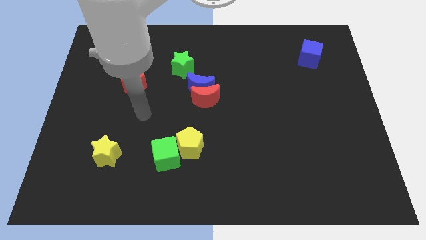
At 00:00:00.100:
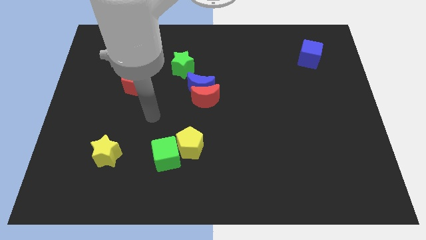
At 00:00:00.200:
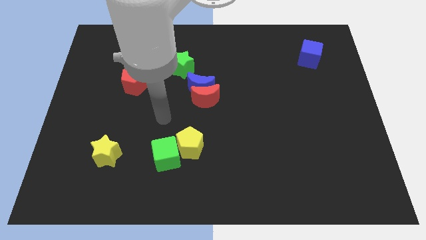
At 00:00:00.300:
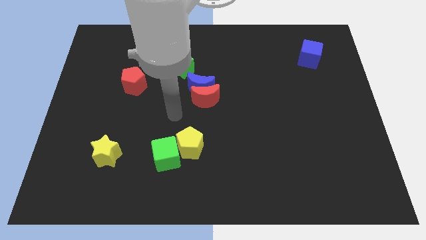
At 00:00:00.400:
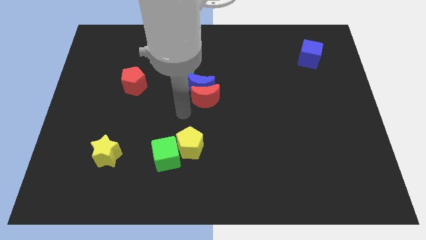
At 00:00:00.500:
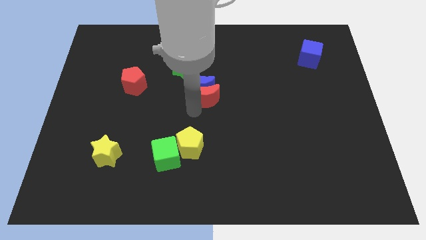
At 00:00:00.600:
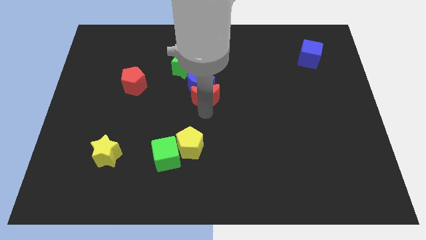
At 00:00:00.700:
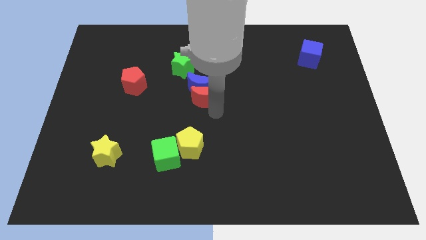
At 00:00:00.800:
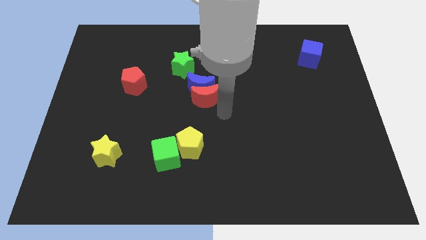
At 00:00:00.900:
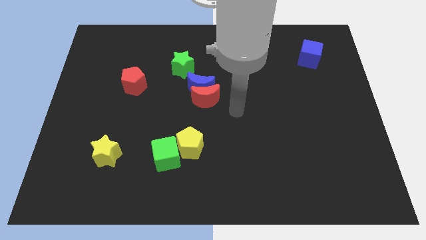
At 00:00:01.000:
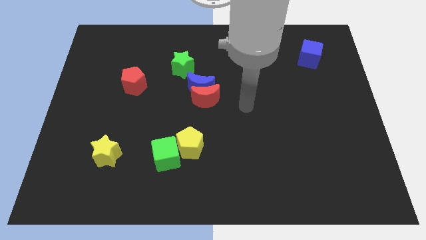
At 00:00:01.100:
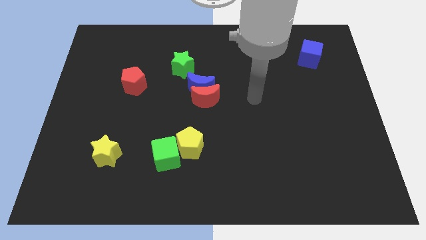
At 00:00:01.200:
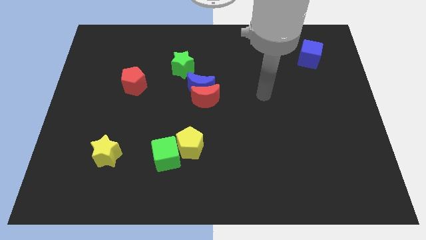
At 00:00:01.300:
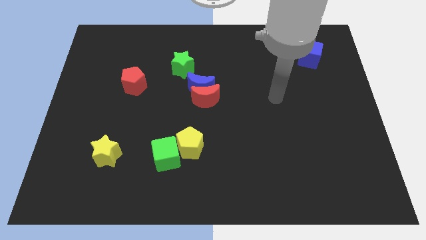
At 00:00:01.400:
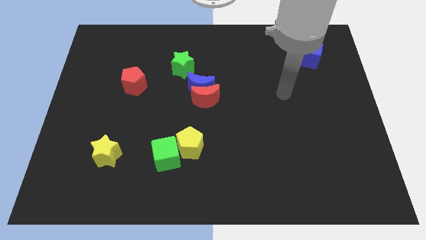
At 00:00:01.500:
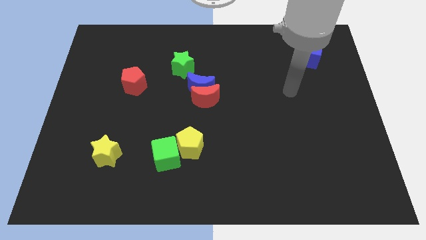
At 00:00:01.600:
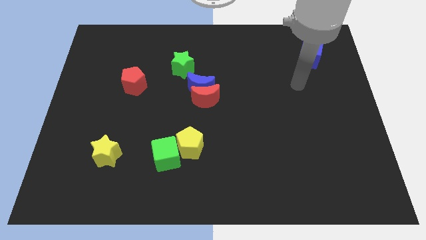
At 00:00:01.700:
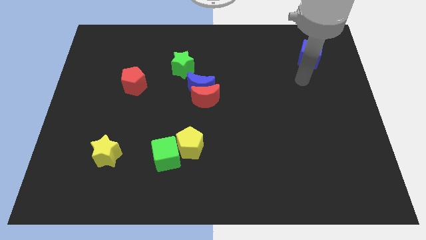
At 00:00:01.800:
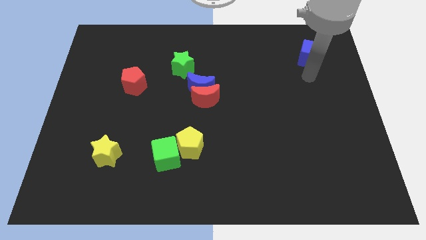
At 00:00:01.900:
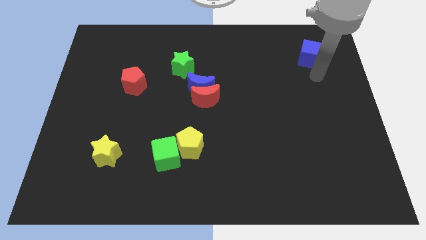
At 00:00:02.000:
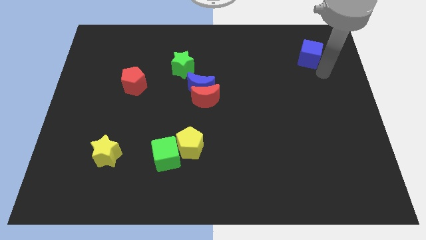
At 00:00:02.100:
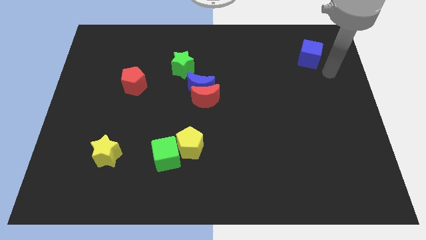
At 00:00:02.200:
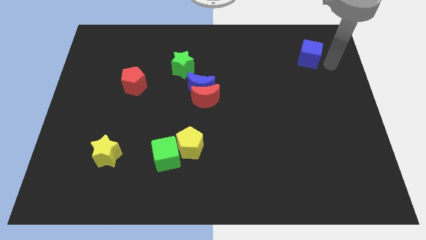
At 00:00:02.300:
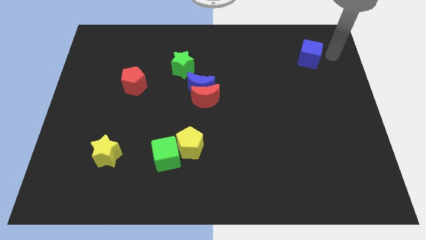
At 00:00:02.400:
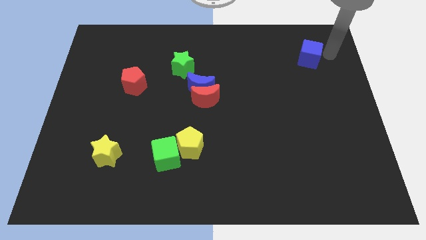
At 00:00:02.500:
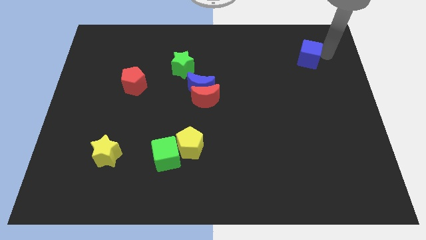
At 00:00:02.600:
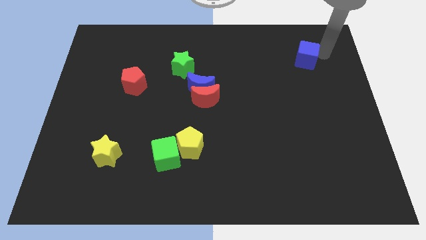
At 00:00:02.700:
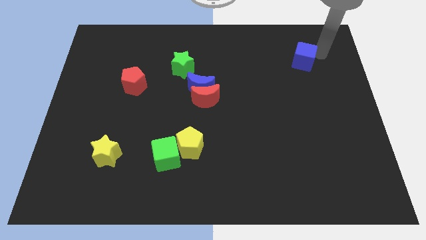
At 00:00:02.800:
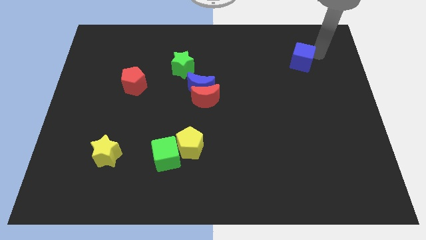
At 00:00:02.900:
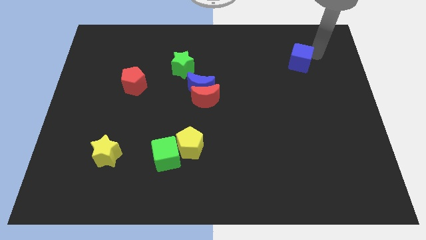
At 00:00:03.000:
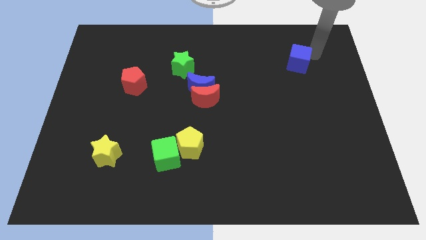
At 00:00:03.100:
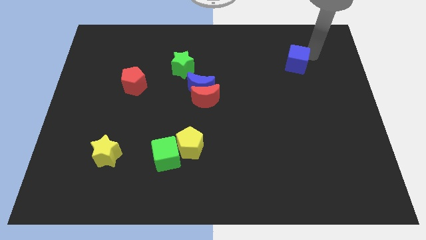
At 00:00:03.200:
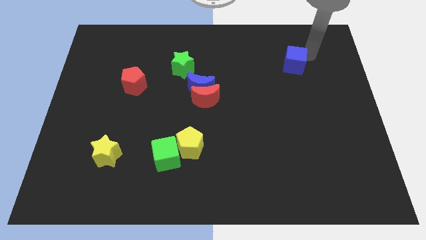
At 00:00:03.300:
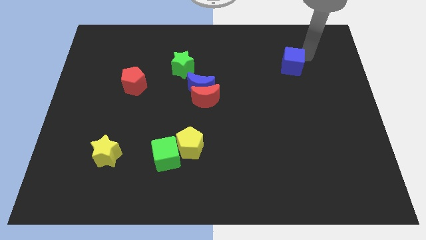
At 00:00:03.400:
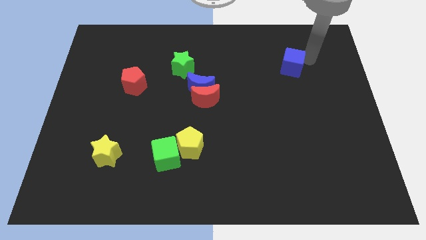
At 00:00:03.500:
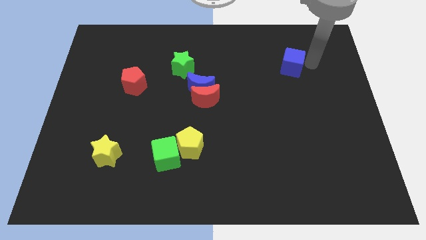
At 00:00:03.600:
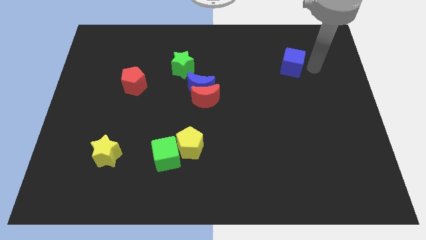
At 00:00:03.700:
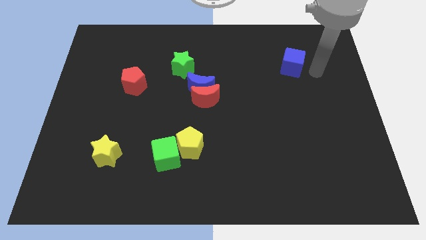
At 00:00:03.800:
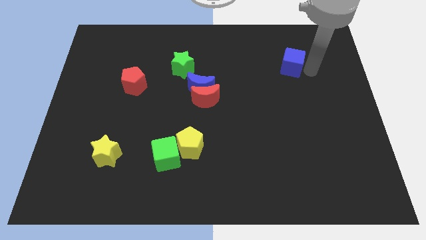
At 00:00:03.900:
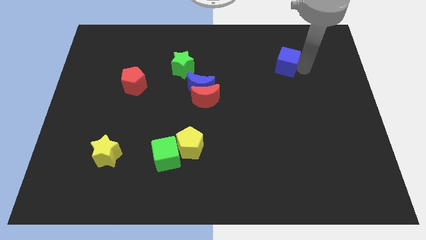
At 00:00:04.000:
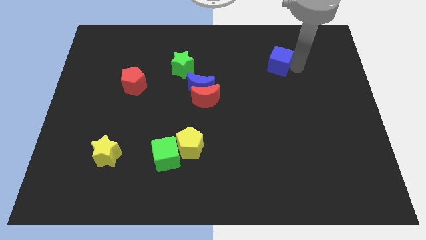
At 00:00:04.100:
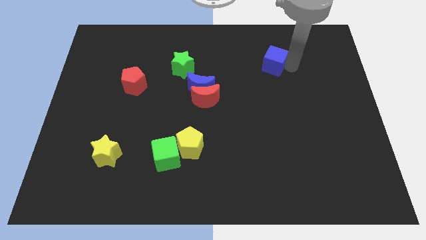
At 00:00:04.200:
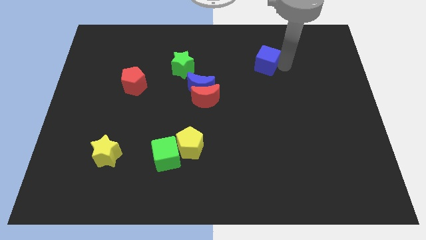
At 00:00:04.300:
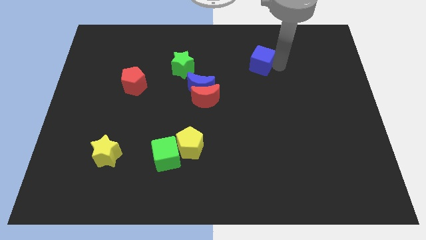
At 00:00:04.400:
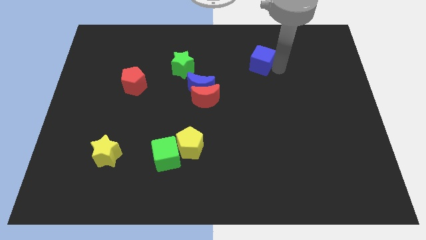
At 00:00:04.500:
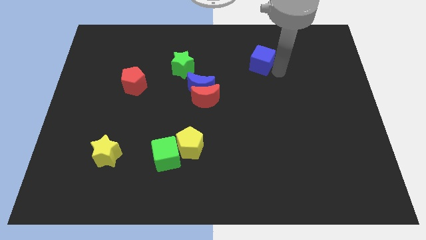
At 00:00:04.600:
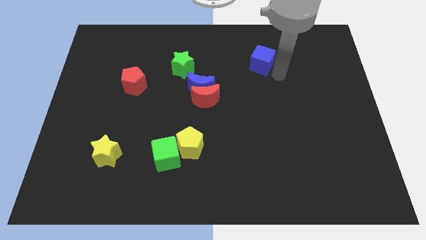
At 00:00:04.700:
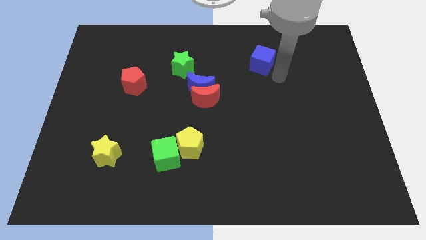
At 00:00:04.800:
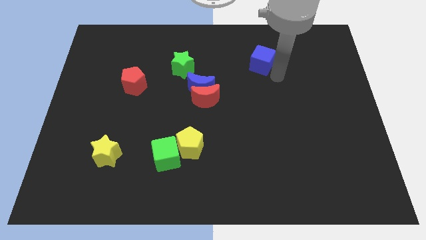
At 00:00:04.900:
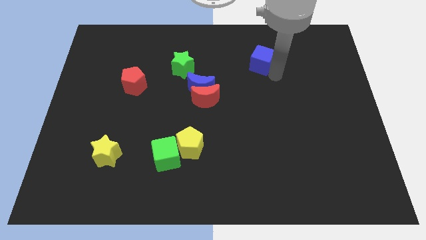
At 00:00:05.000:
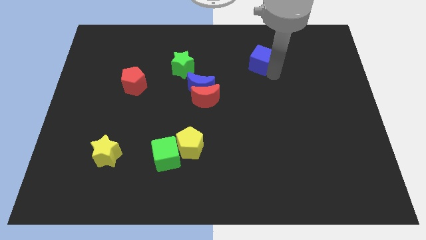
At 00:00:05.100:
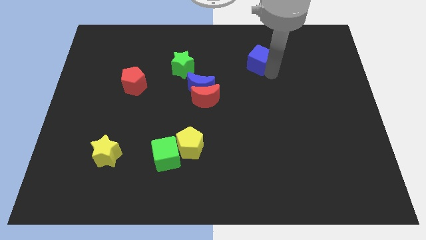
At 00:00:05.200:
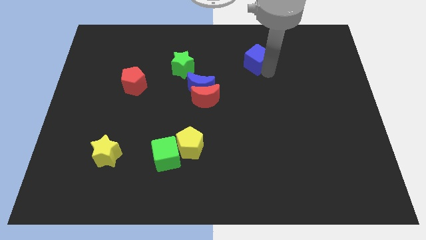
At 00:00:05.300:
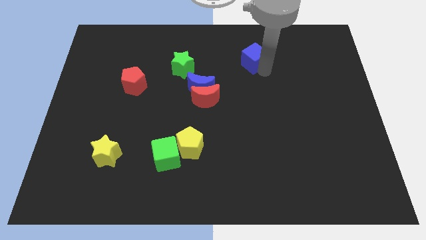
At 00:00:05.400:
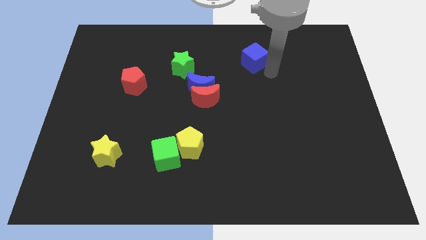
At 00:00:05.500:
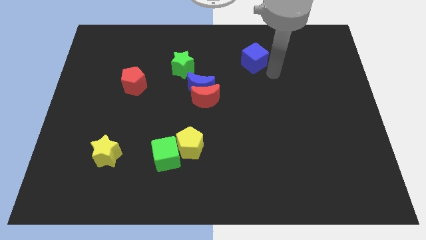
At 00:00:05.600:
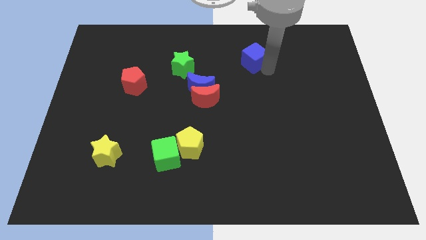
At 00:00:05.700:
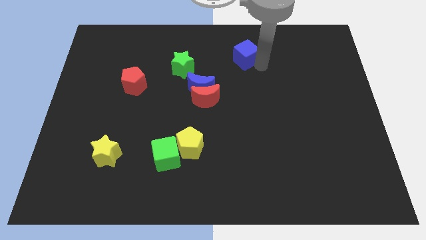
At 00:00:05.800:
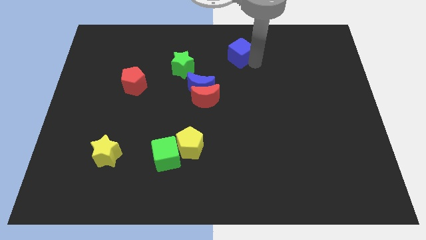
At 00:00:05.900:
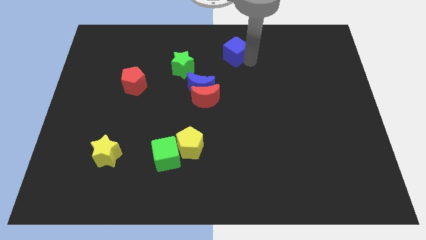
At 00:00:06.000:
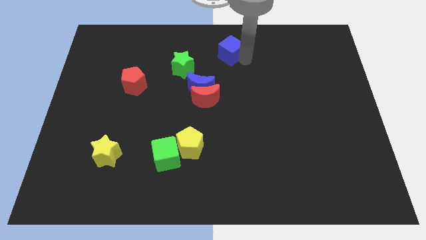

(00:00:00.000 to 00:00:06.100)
move the blue cube to the towards your base

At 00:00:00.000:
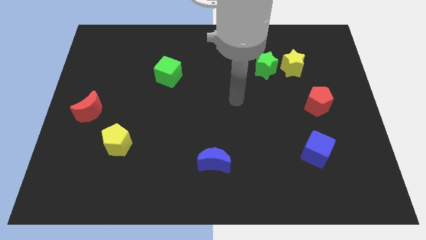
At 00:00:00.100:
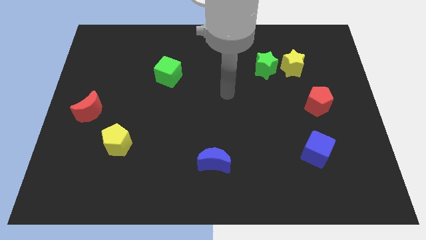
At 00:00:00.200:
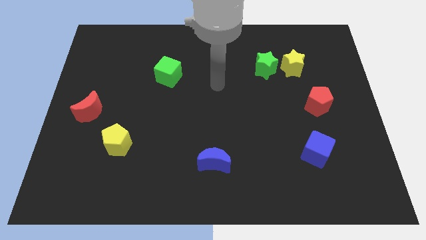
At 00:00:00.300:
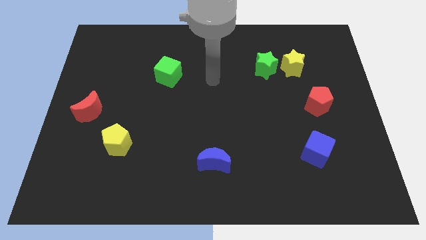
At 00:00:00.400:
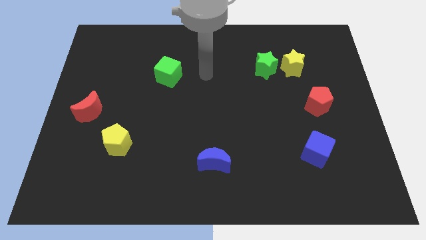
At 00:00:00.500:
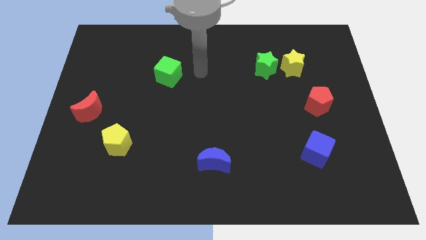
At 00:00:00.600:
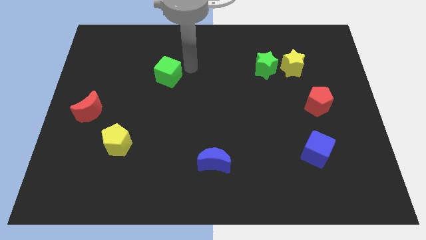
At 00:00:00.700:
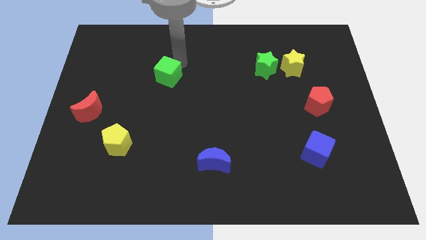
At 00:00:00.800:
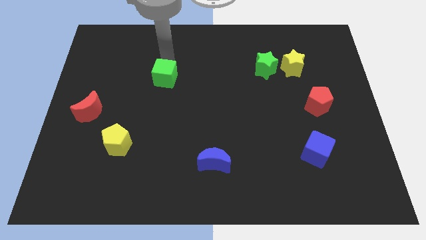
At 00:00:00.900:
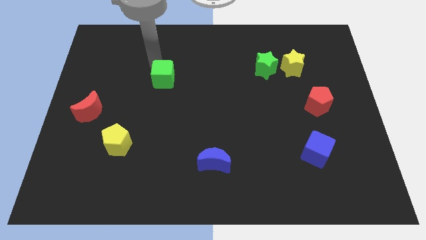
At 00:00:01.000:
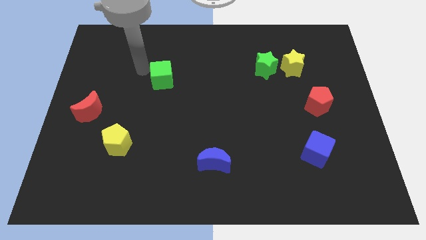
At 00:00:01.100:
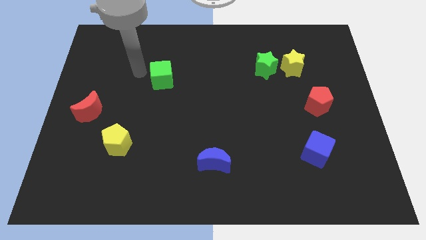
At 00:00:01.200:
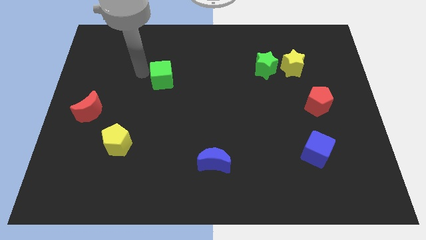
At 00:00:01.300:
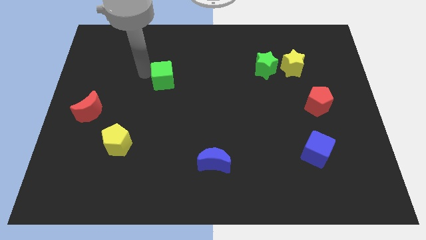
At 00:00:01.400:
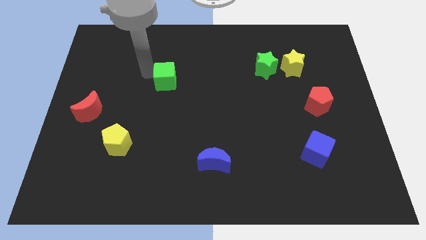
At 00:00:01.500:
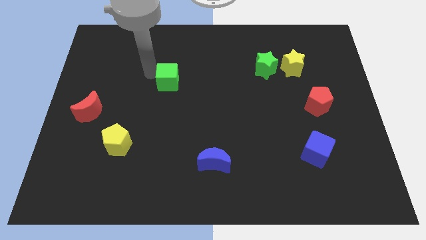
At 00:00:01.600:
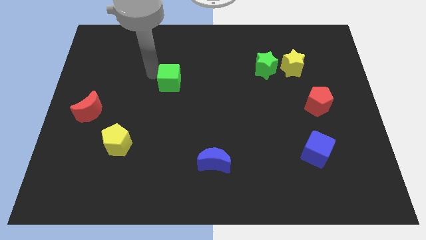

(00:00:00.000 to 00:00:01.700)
move the green cube to the center of the board
